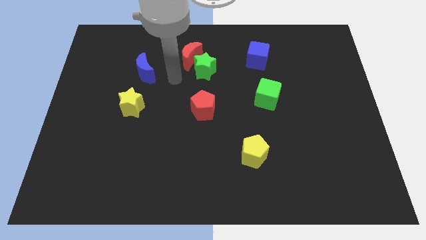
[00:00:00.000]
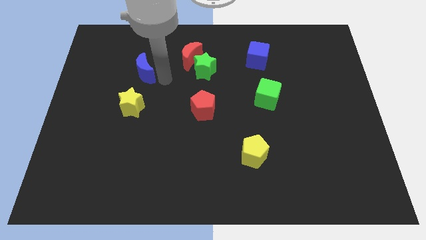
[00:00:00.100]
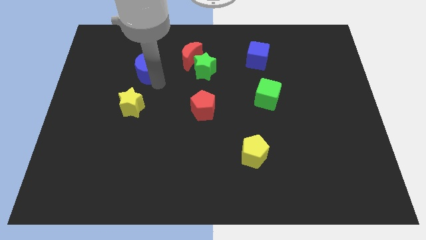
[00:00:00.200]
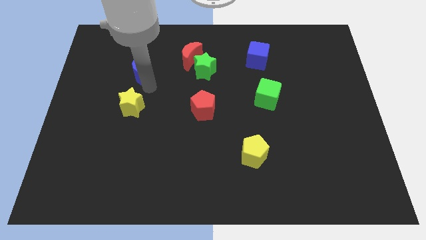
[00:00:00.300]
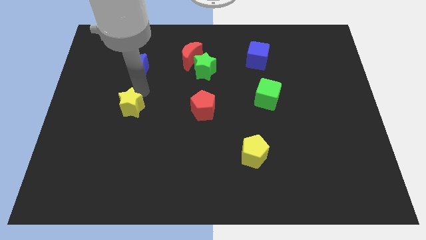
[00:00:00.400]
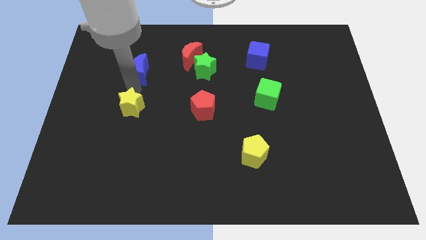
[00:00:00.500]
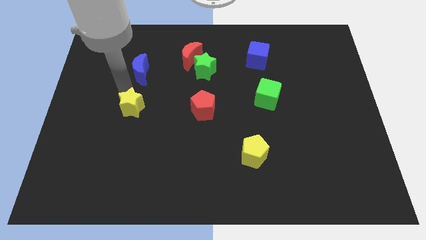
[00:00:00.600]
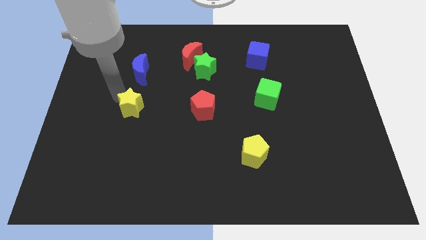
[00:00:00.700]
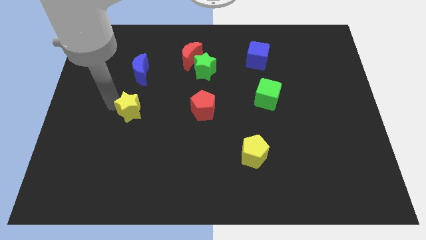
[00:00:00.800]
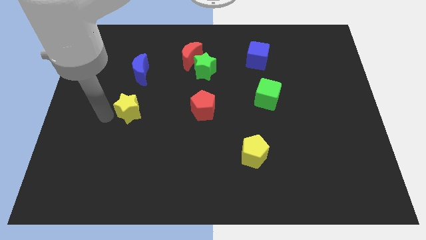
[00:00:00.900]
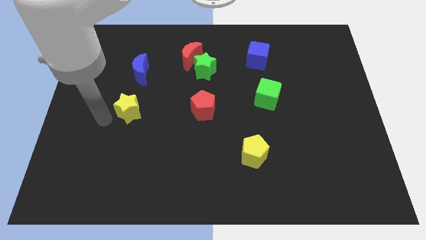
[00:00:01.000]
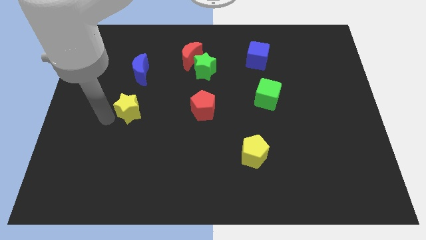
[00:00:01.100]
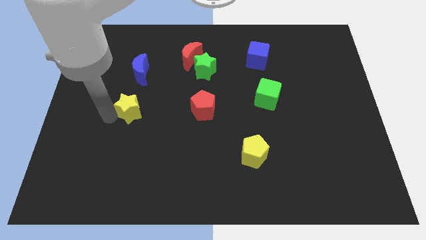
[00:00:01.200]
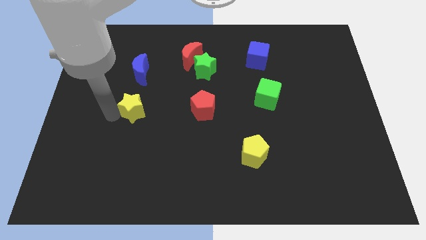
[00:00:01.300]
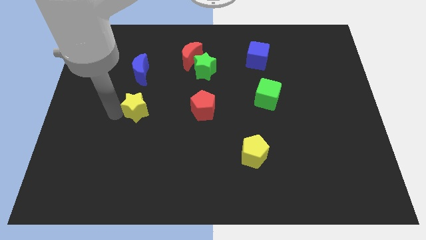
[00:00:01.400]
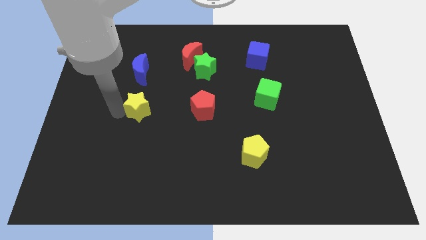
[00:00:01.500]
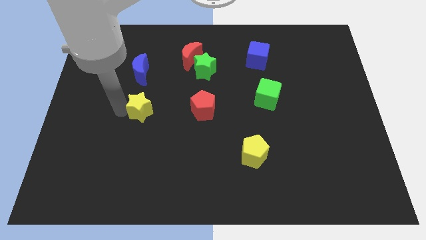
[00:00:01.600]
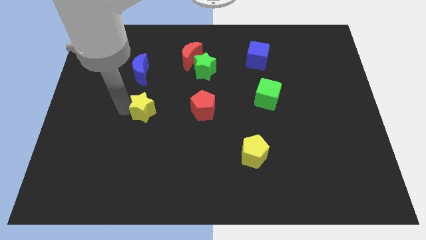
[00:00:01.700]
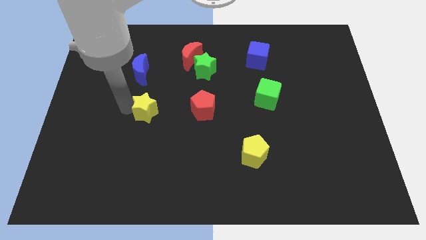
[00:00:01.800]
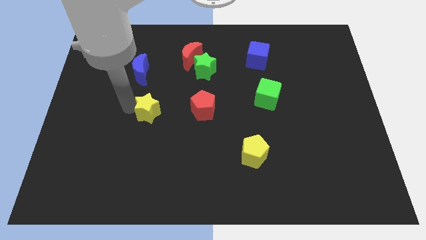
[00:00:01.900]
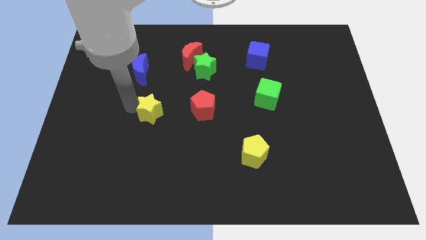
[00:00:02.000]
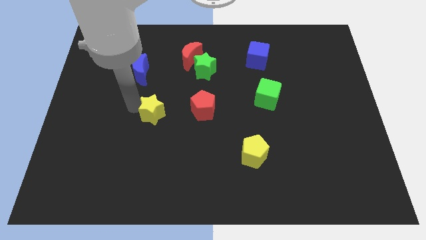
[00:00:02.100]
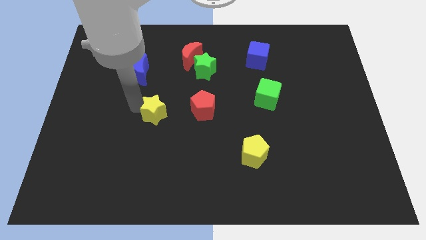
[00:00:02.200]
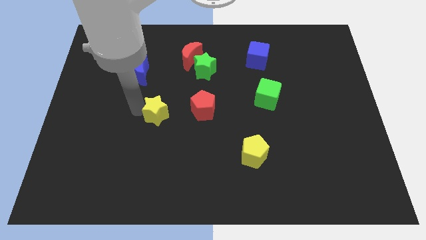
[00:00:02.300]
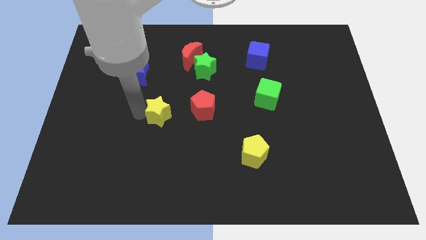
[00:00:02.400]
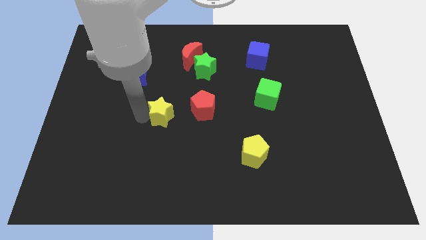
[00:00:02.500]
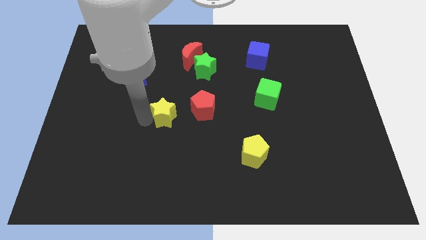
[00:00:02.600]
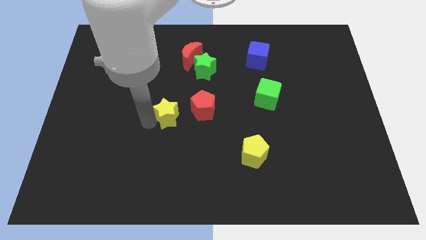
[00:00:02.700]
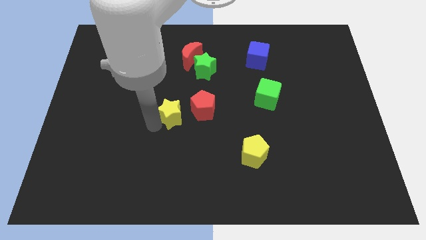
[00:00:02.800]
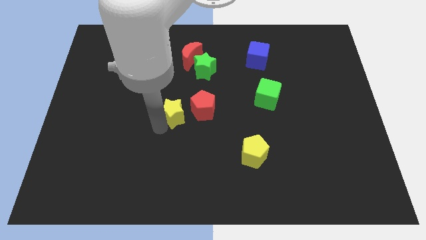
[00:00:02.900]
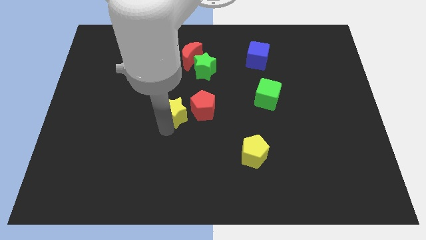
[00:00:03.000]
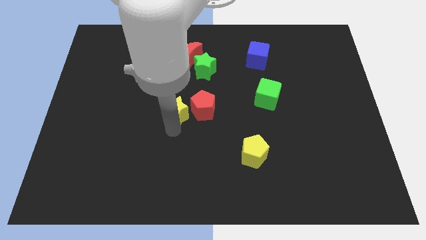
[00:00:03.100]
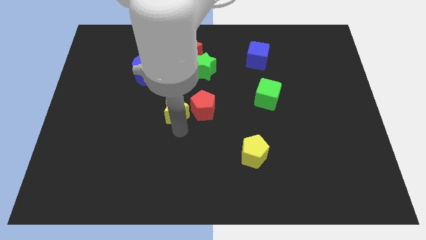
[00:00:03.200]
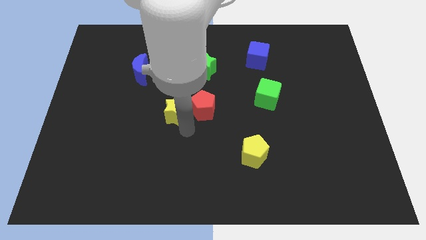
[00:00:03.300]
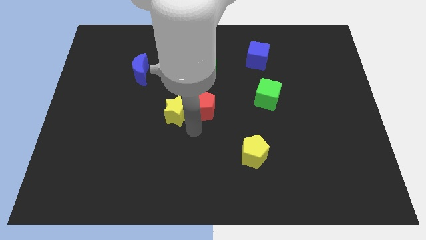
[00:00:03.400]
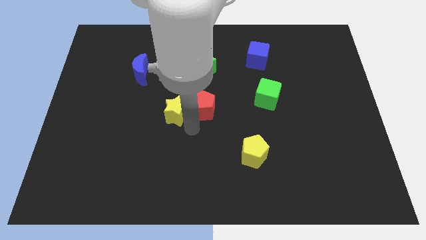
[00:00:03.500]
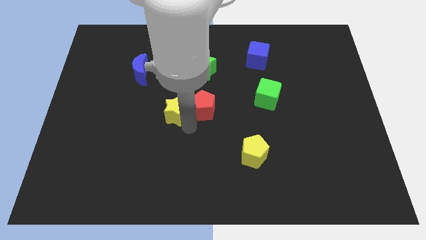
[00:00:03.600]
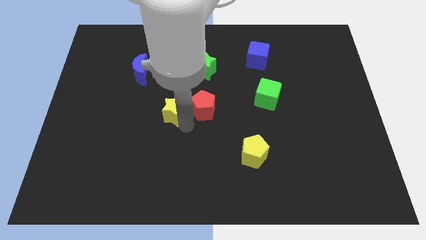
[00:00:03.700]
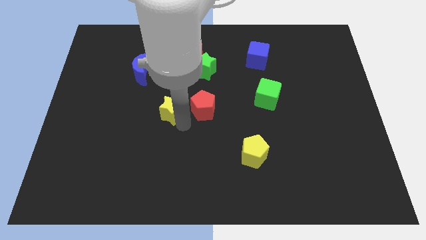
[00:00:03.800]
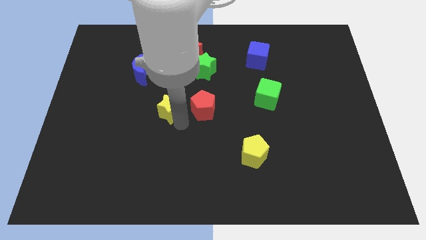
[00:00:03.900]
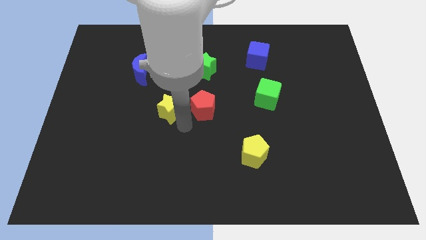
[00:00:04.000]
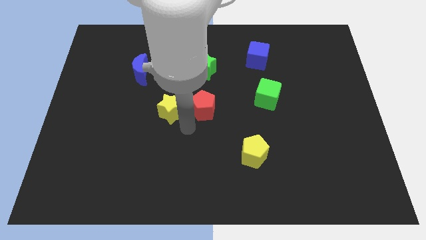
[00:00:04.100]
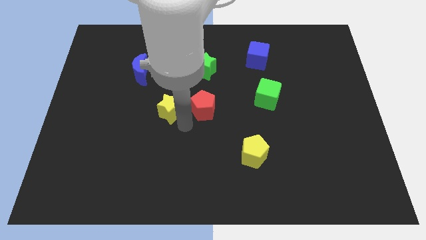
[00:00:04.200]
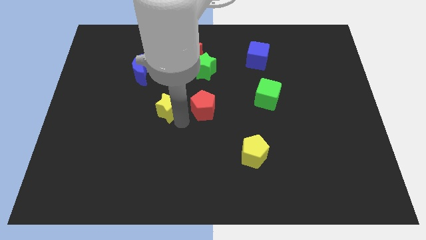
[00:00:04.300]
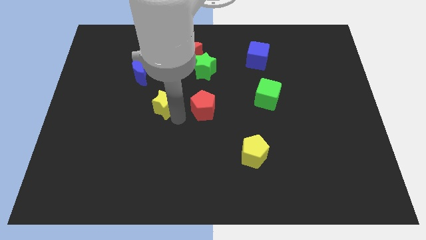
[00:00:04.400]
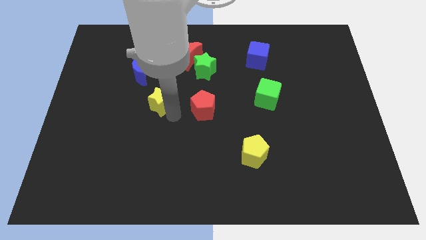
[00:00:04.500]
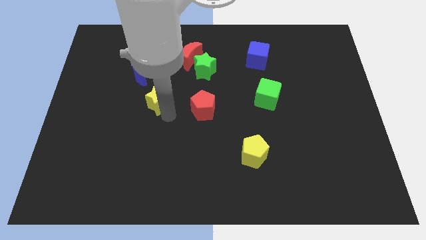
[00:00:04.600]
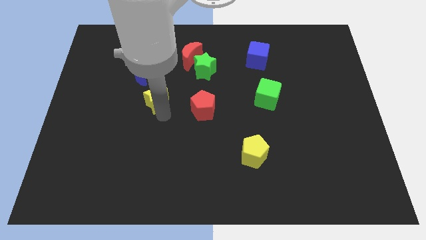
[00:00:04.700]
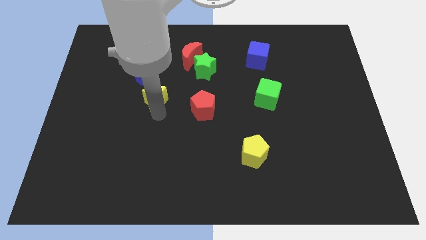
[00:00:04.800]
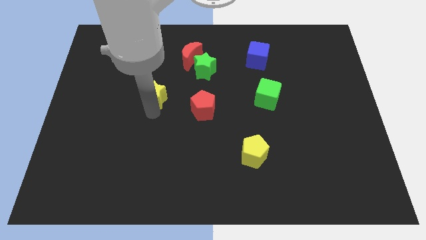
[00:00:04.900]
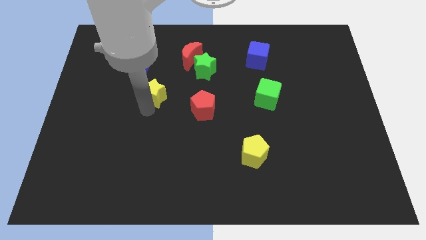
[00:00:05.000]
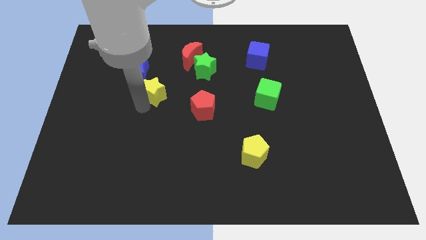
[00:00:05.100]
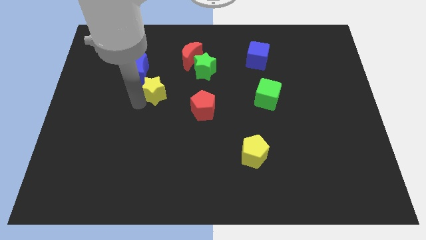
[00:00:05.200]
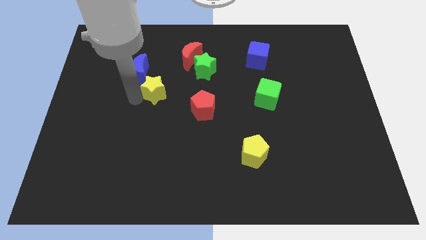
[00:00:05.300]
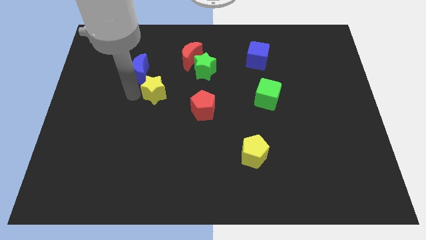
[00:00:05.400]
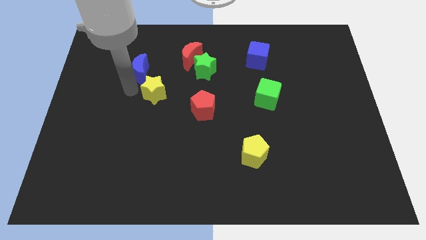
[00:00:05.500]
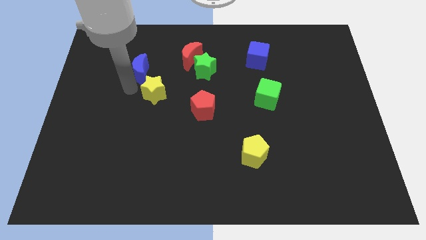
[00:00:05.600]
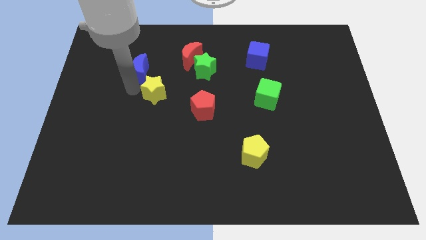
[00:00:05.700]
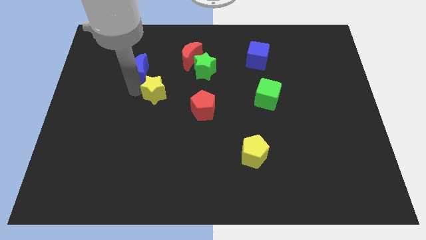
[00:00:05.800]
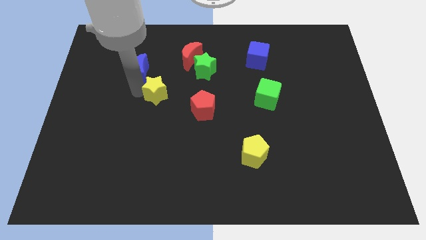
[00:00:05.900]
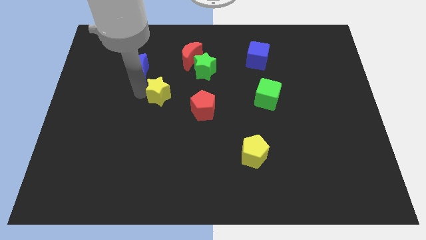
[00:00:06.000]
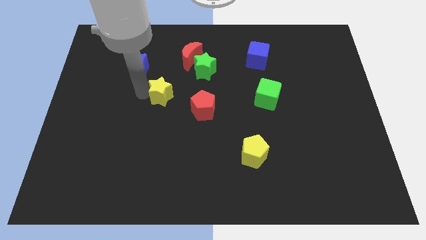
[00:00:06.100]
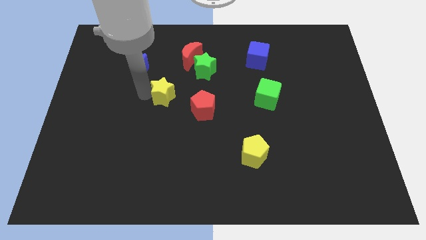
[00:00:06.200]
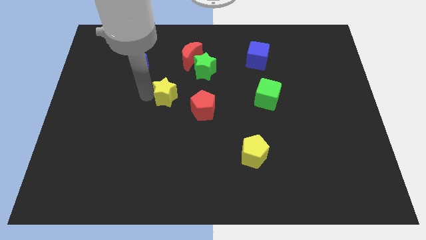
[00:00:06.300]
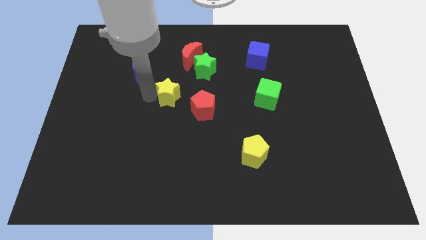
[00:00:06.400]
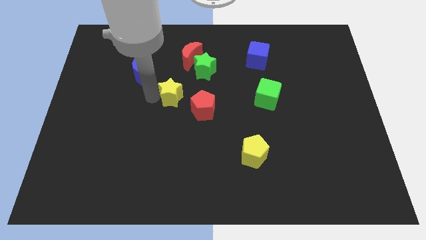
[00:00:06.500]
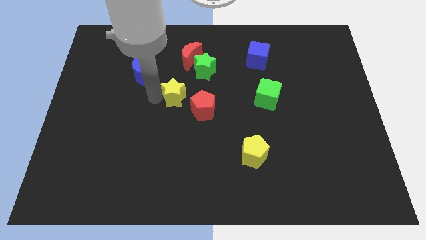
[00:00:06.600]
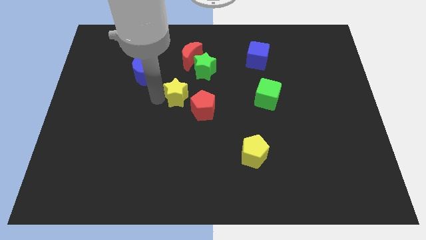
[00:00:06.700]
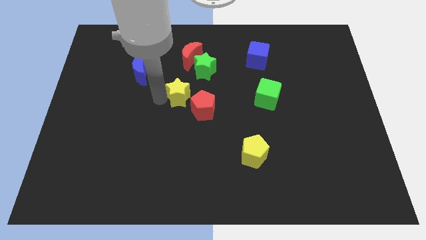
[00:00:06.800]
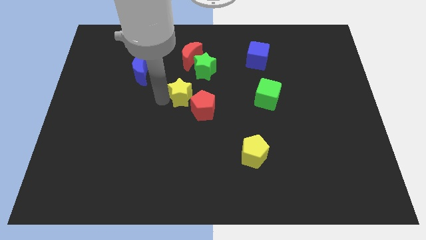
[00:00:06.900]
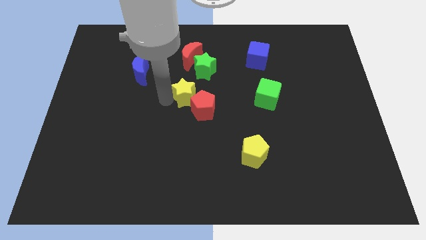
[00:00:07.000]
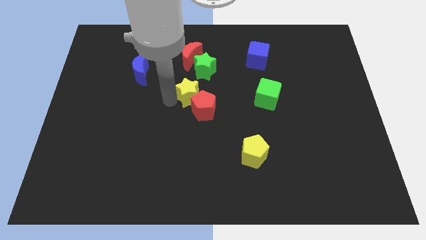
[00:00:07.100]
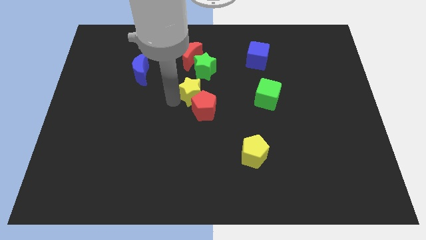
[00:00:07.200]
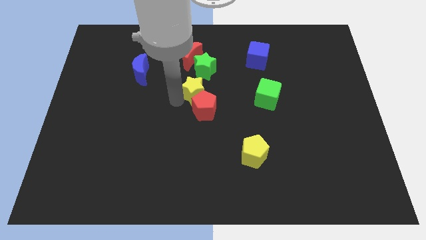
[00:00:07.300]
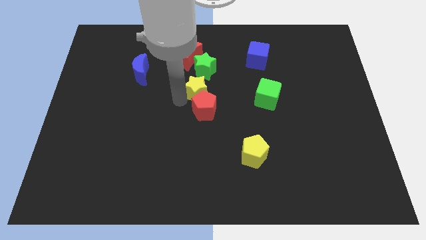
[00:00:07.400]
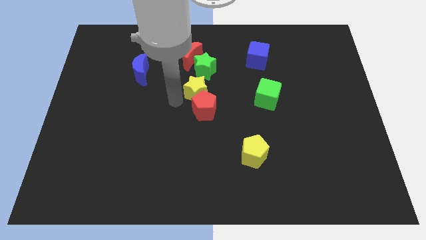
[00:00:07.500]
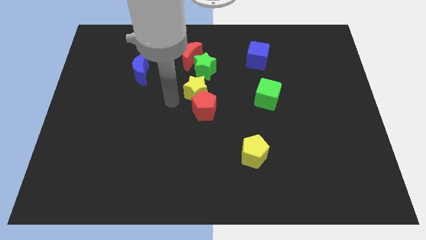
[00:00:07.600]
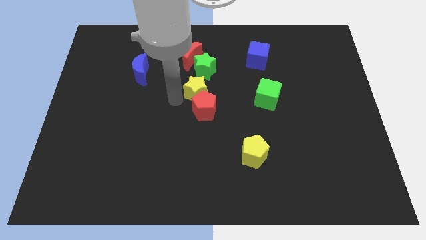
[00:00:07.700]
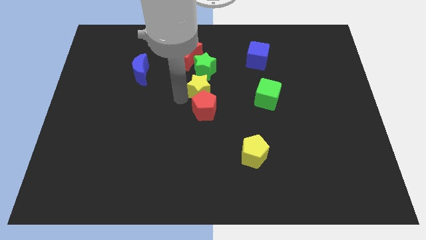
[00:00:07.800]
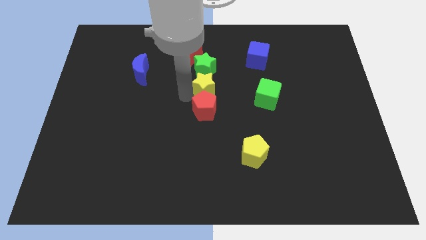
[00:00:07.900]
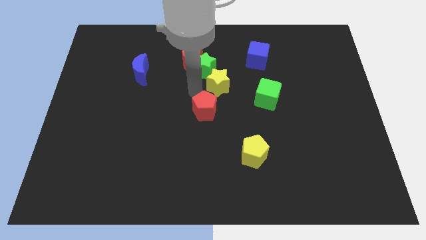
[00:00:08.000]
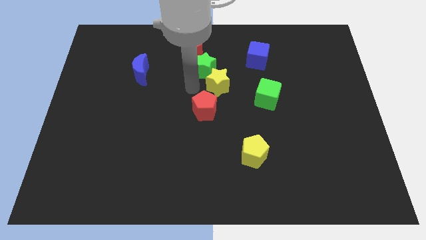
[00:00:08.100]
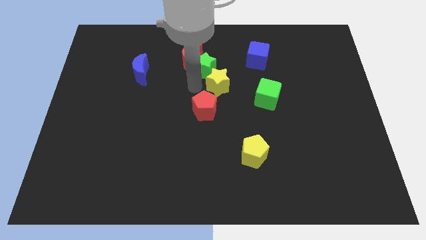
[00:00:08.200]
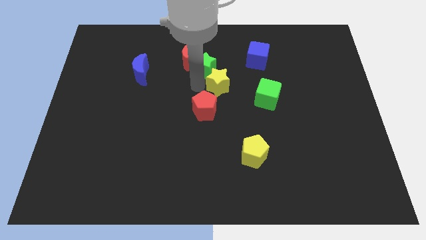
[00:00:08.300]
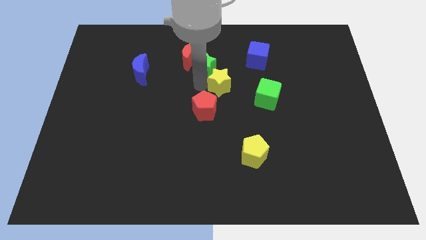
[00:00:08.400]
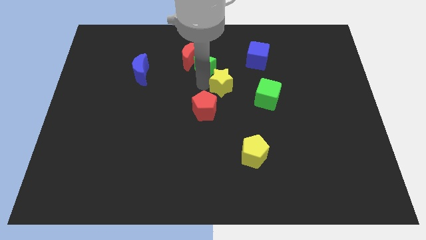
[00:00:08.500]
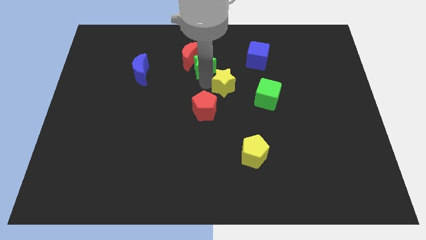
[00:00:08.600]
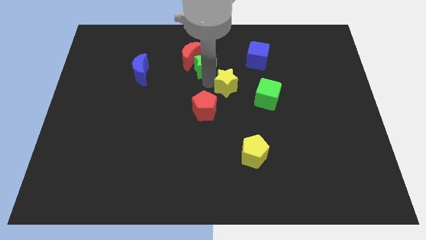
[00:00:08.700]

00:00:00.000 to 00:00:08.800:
push the yellow star to the top left side of the green cube
